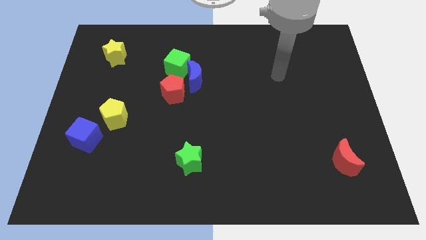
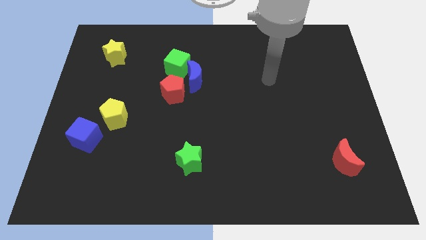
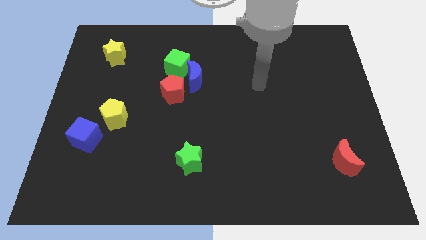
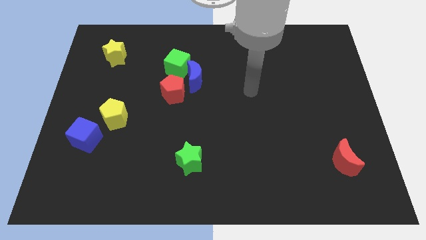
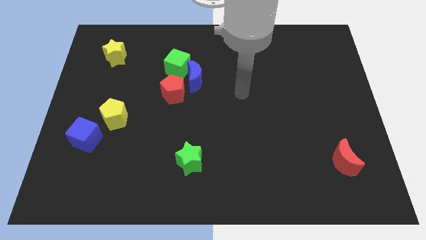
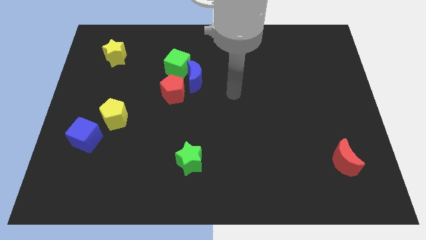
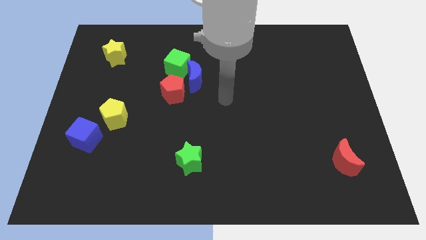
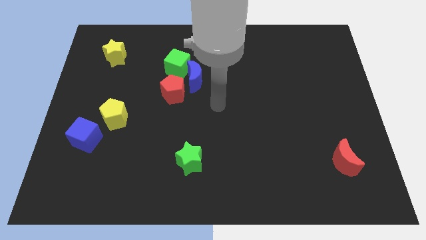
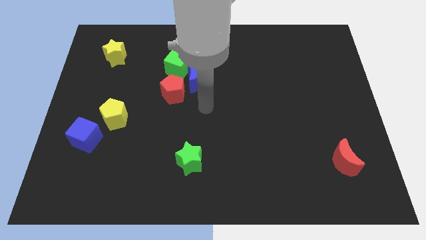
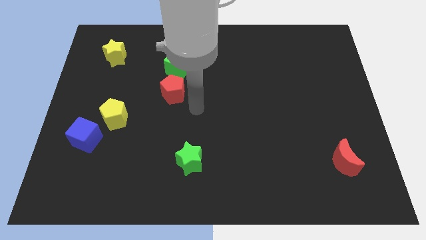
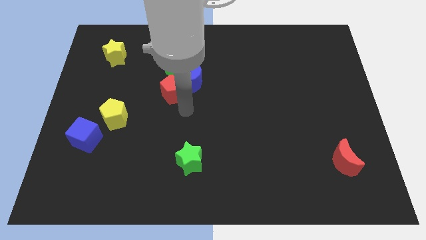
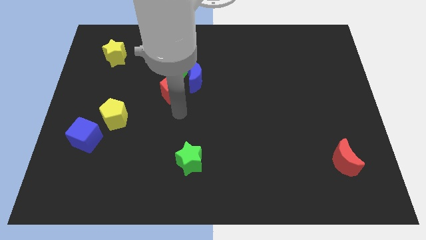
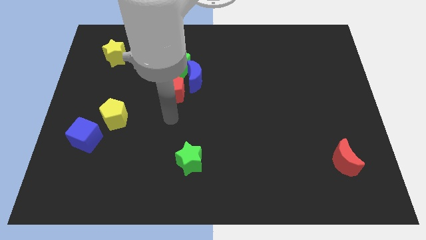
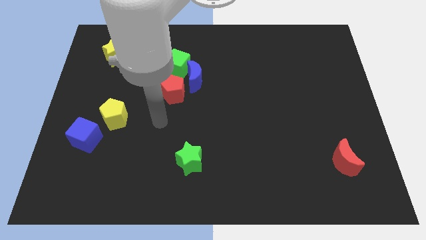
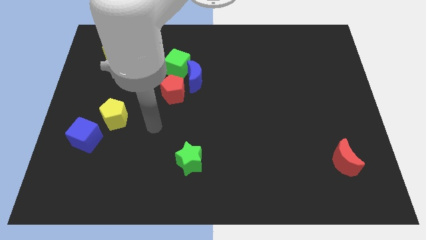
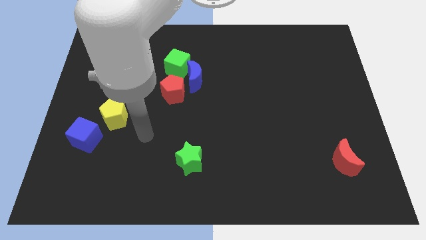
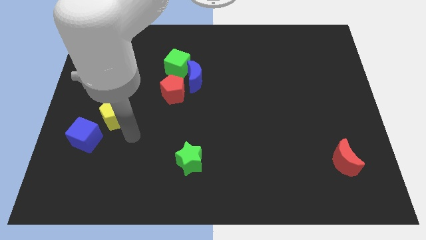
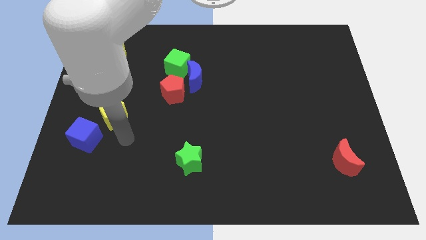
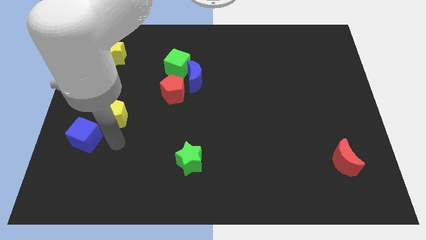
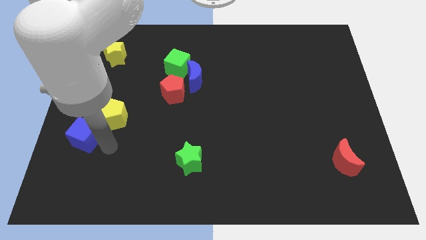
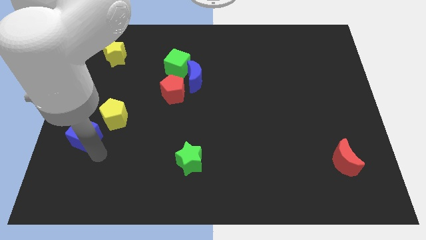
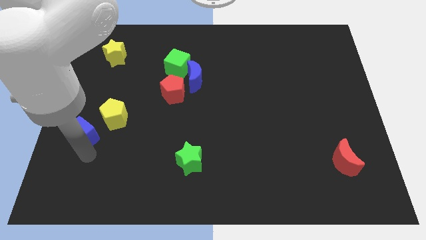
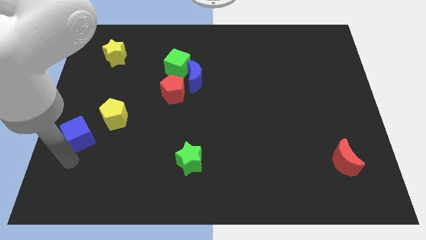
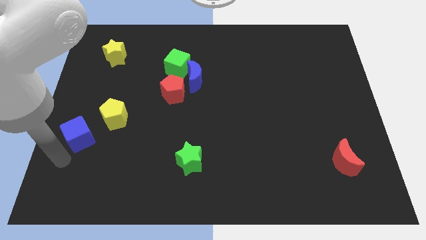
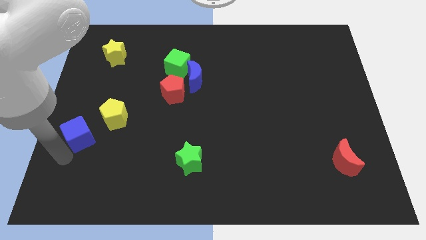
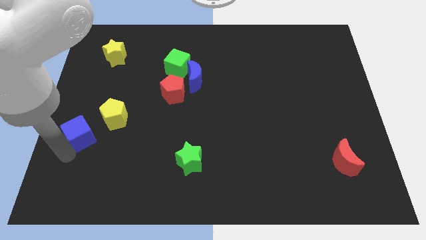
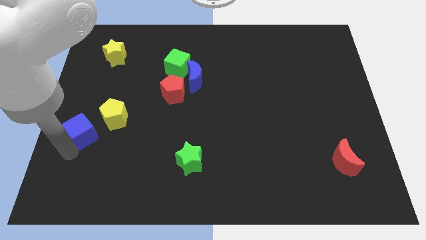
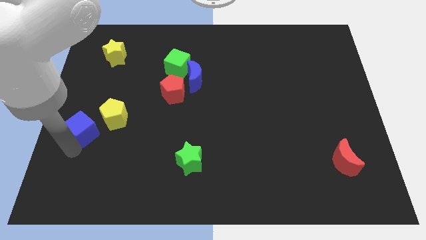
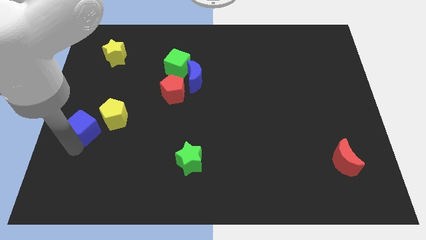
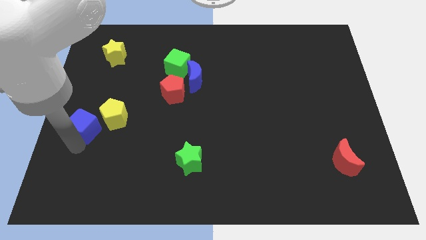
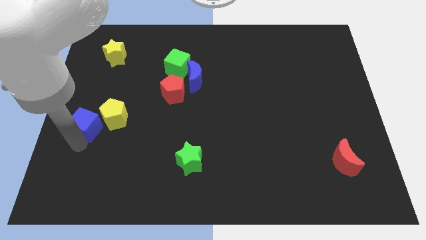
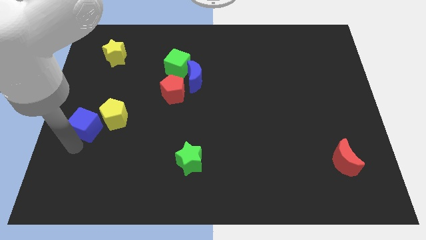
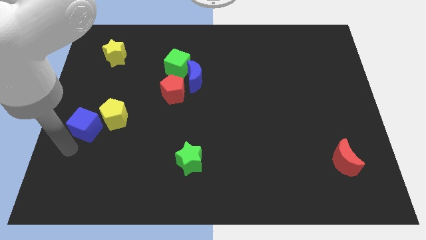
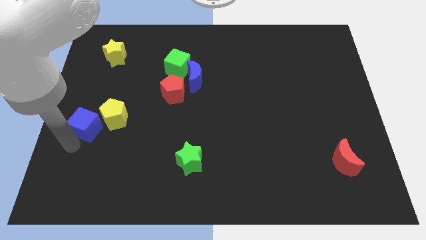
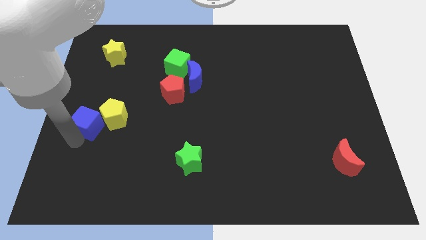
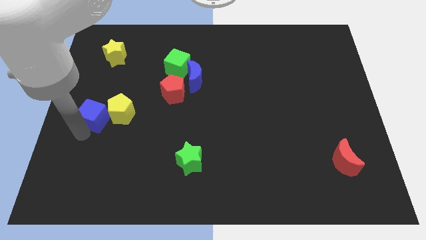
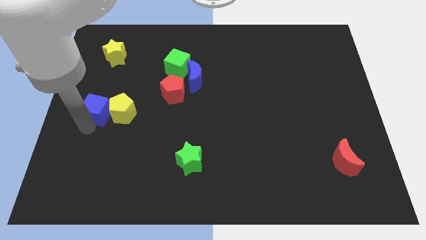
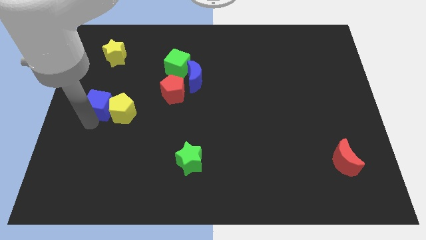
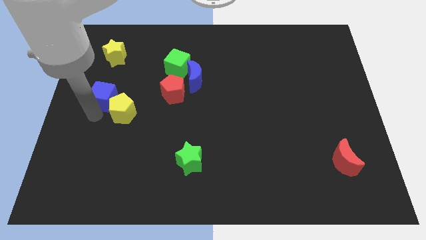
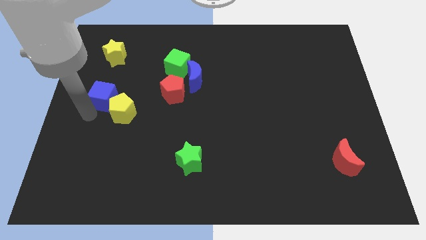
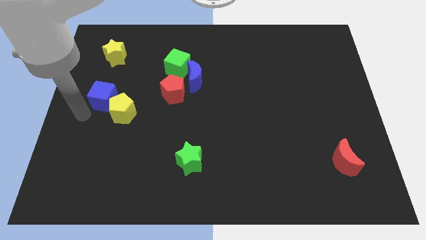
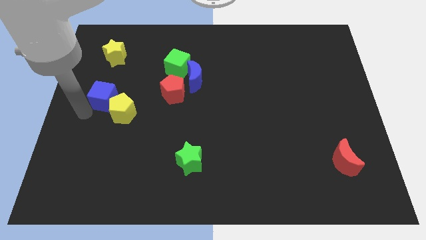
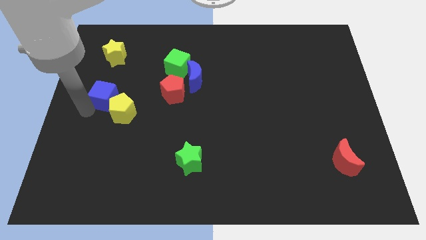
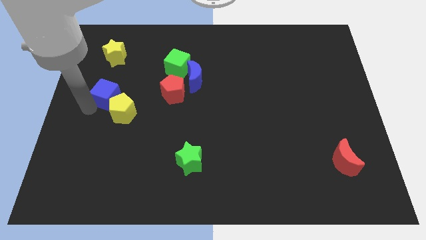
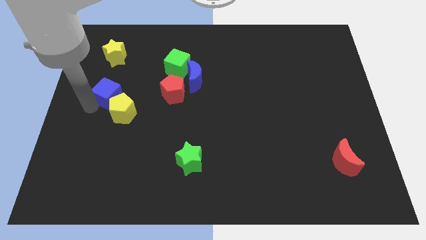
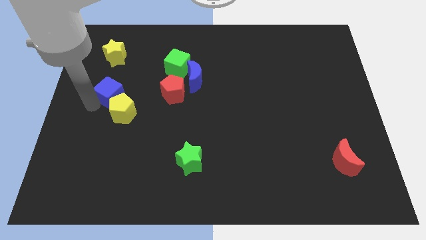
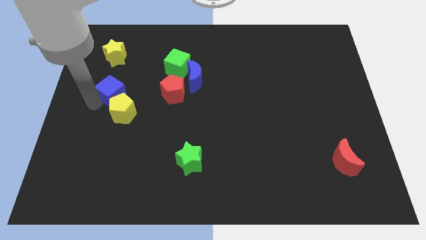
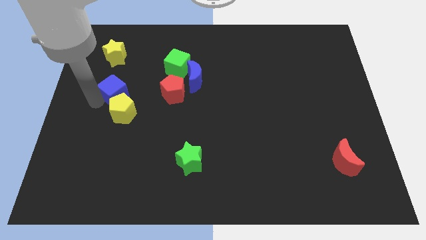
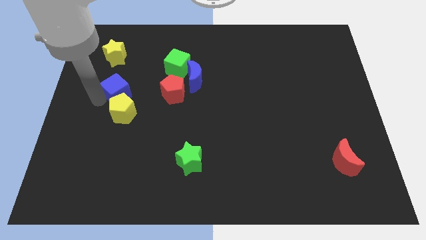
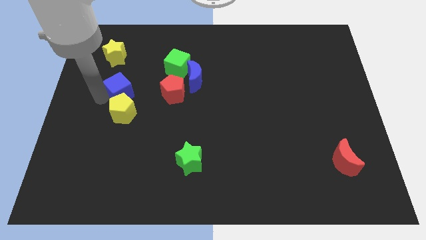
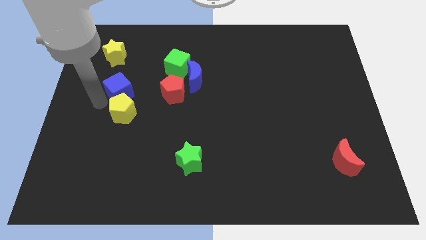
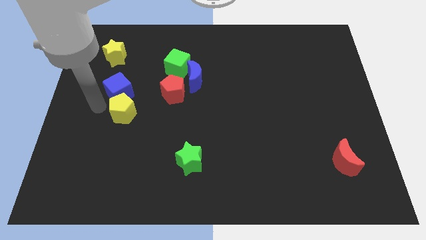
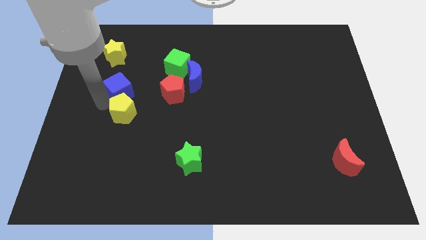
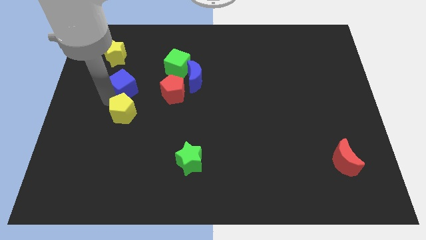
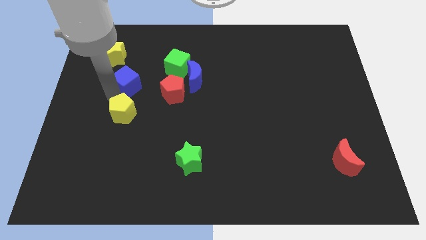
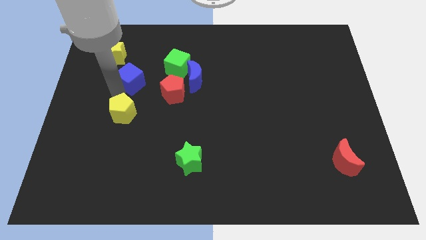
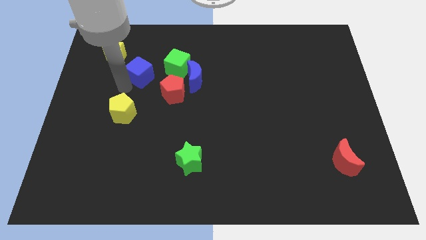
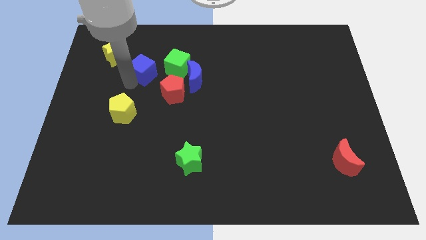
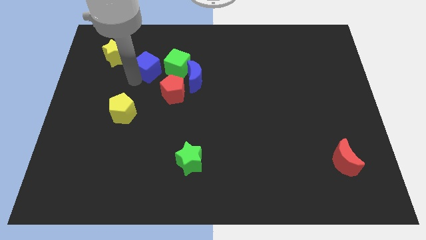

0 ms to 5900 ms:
move the blue cube diagonally upwards and to the right

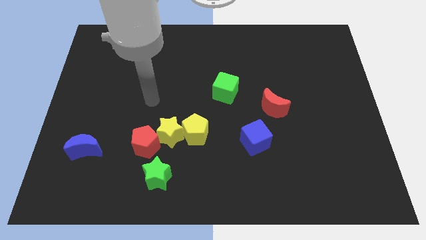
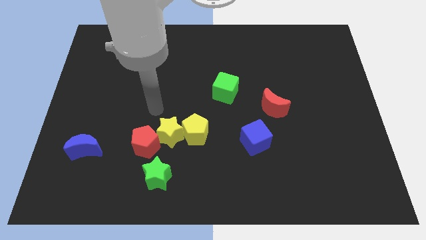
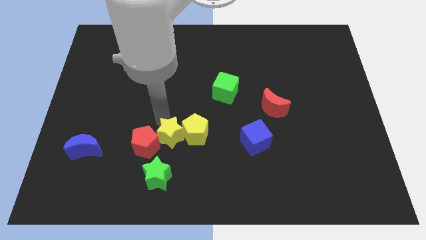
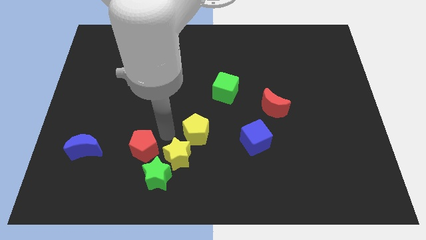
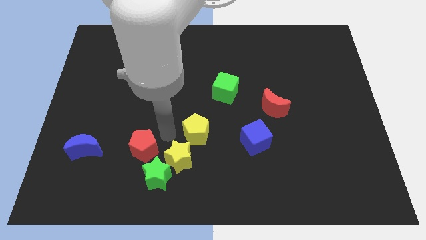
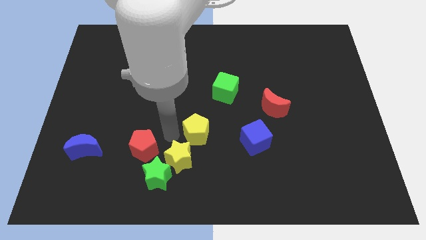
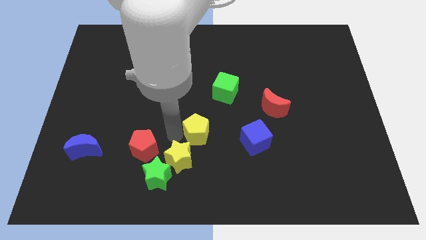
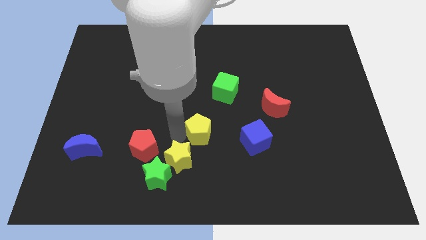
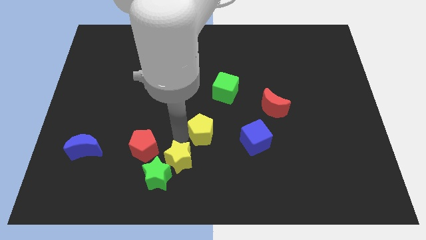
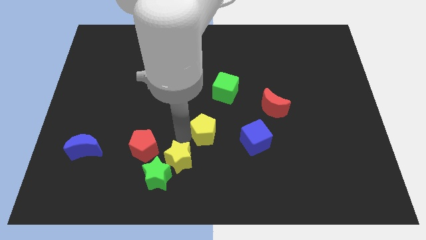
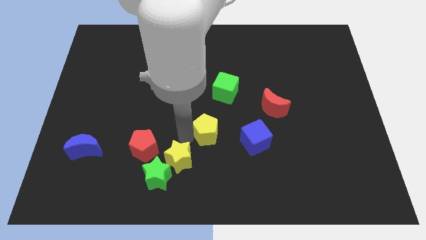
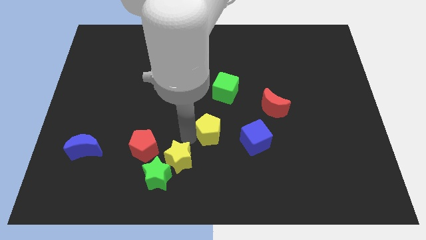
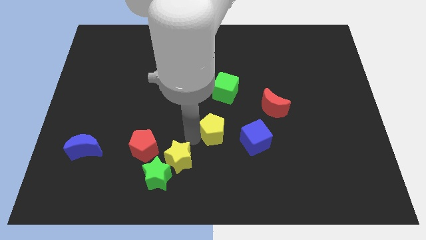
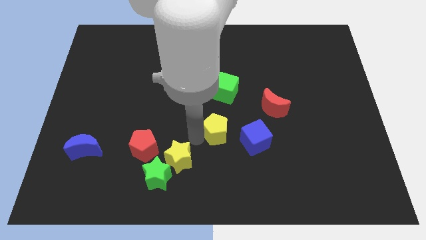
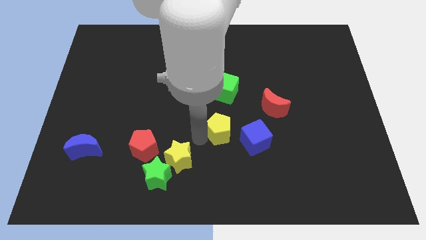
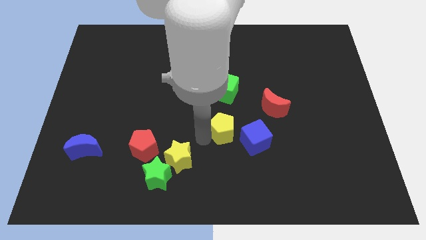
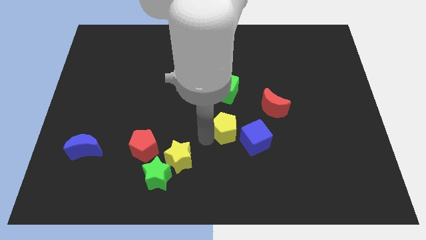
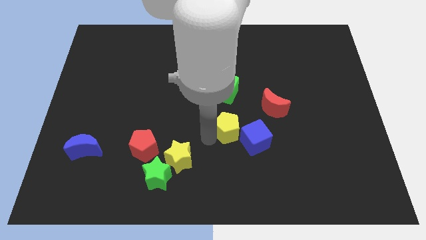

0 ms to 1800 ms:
push the yellow pentagon to the right slightly

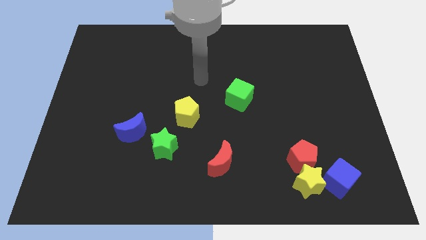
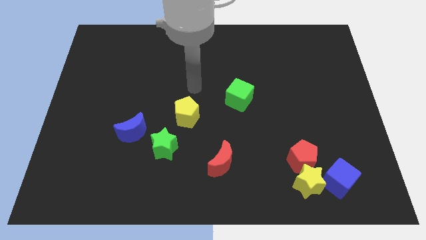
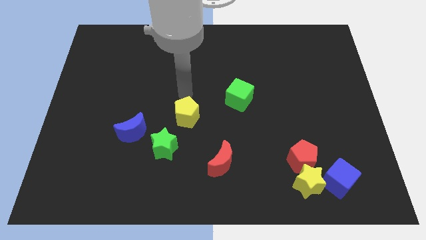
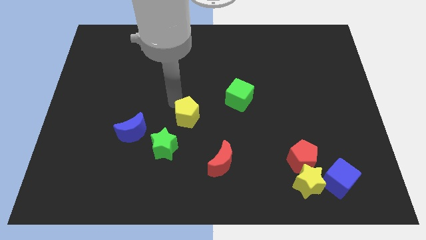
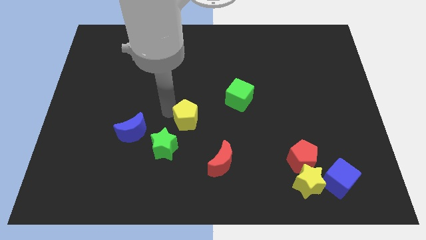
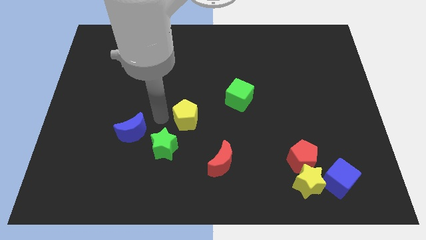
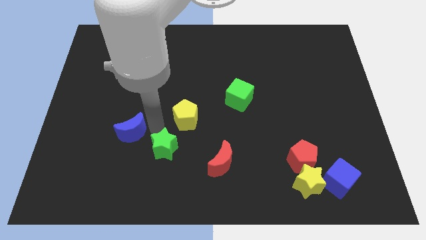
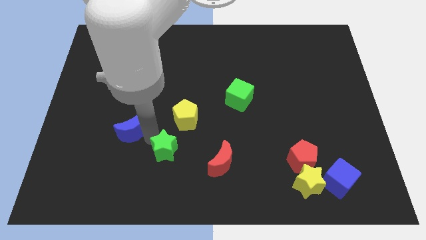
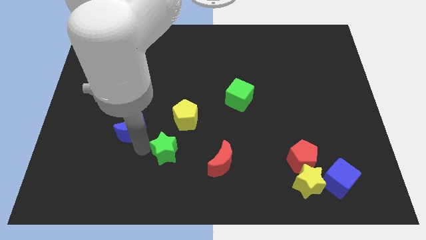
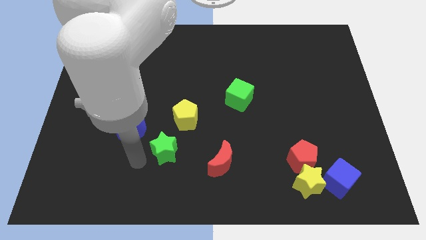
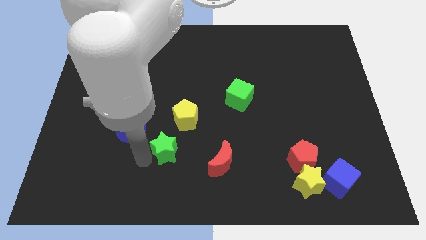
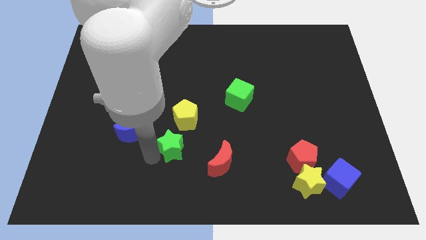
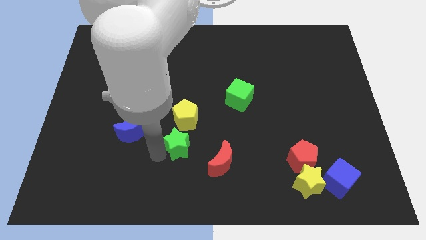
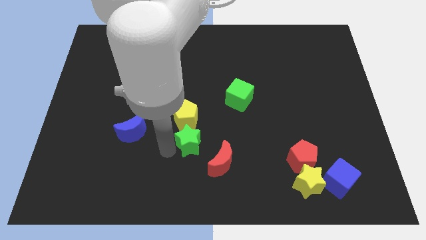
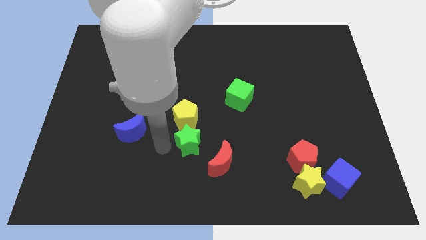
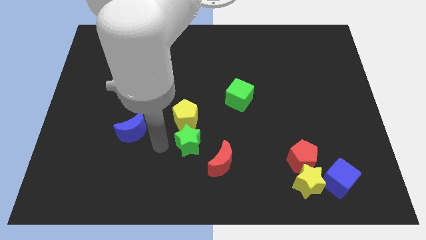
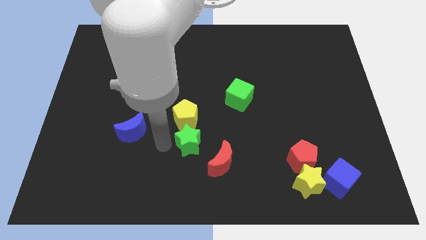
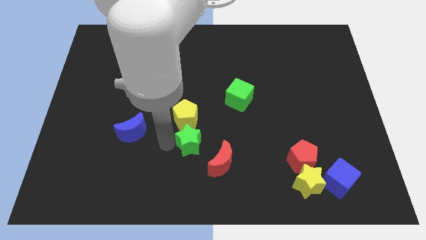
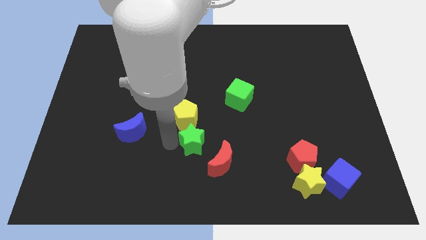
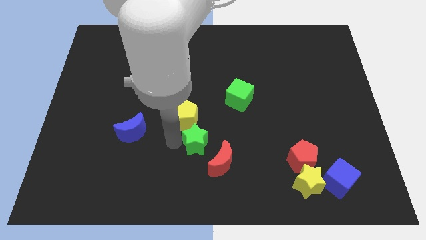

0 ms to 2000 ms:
slightly push the green star to the right
